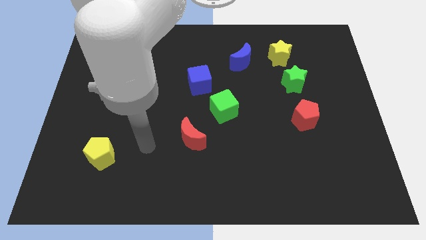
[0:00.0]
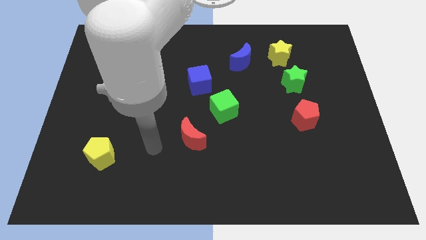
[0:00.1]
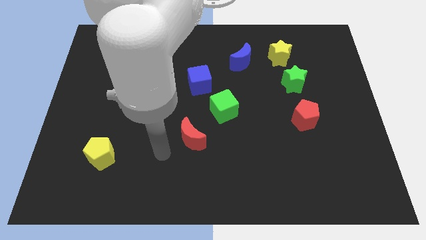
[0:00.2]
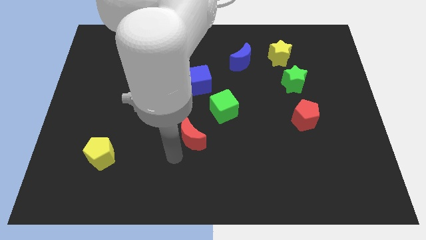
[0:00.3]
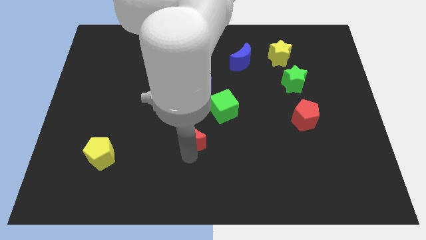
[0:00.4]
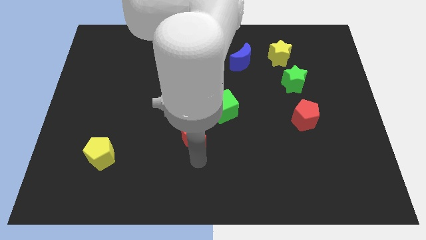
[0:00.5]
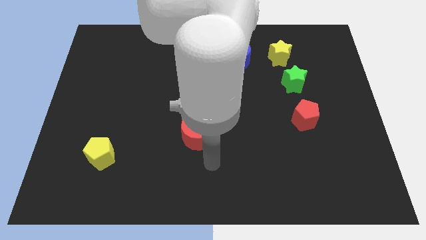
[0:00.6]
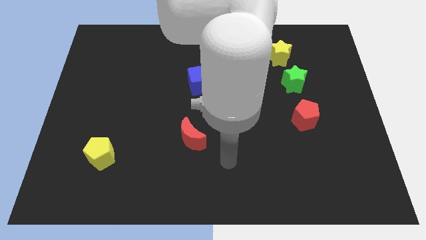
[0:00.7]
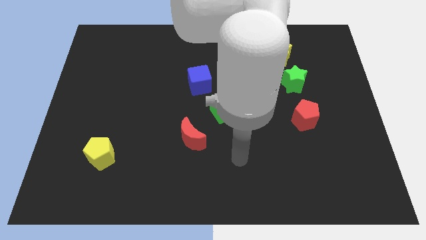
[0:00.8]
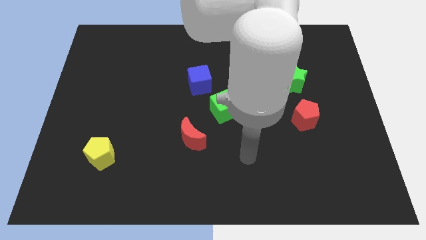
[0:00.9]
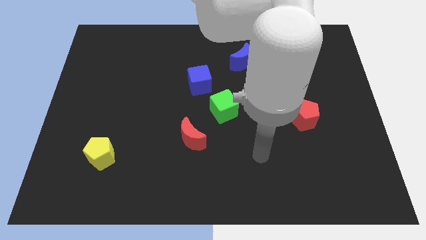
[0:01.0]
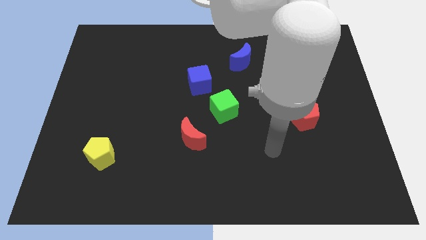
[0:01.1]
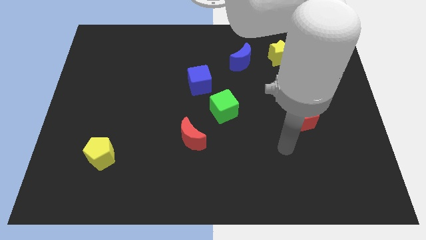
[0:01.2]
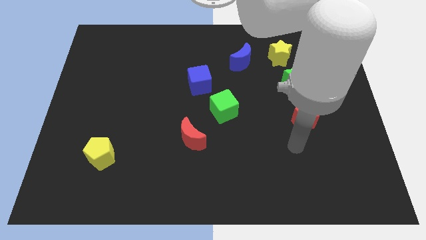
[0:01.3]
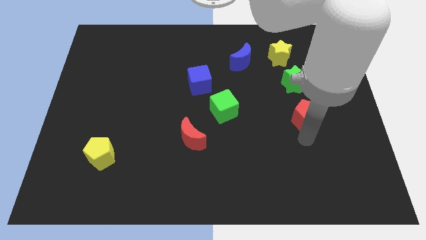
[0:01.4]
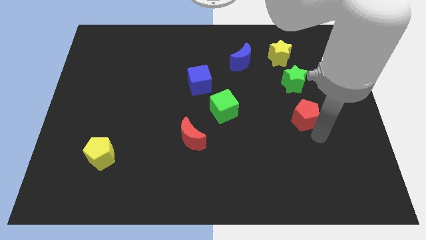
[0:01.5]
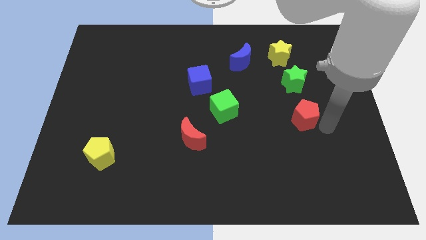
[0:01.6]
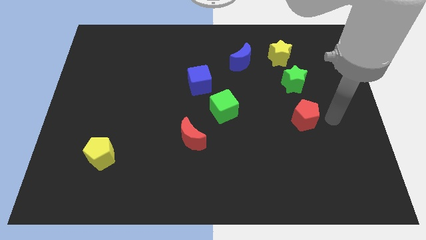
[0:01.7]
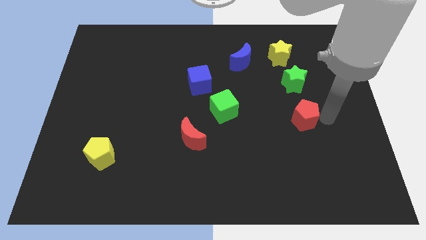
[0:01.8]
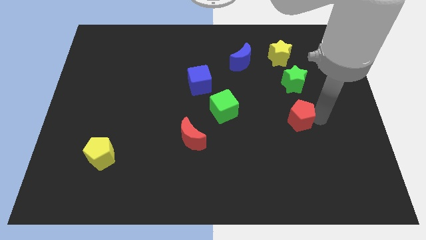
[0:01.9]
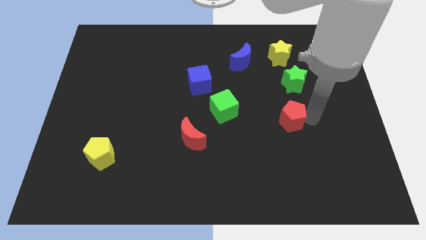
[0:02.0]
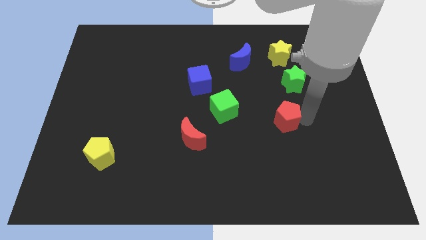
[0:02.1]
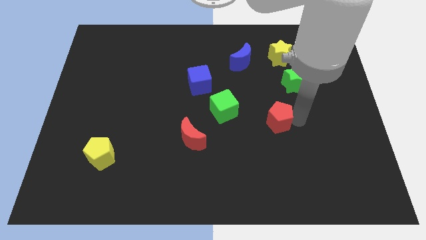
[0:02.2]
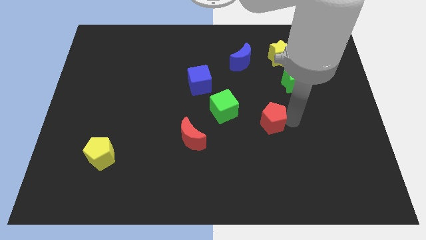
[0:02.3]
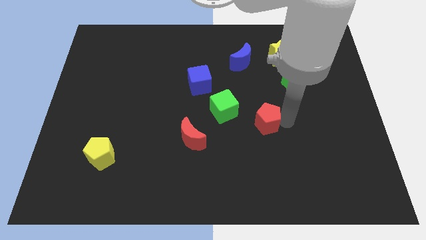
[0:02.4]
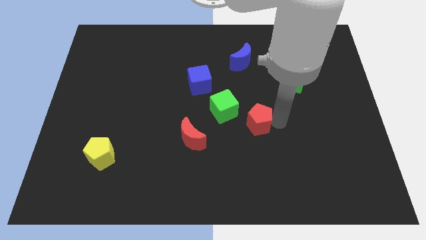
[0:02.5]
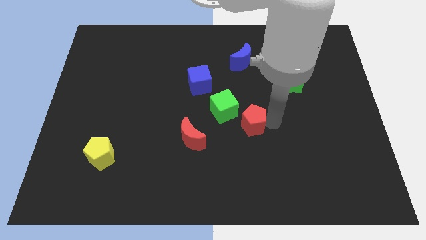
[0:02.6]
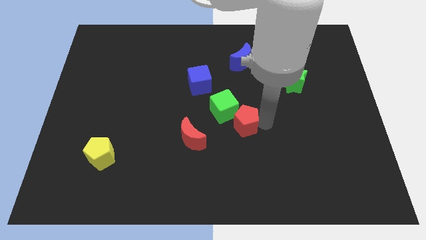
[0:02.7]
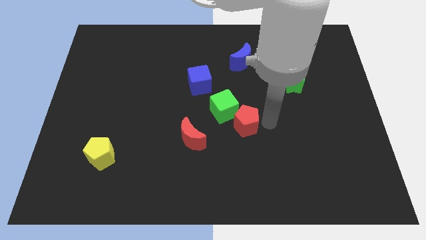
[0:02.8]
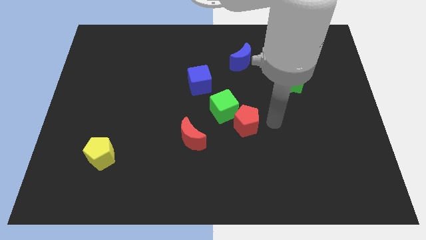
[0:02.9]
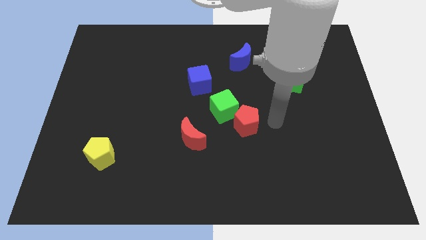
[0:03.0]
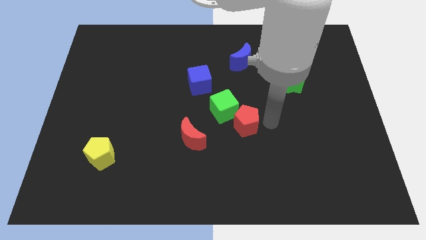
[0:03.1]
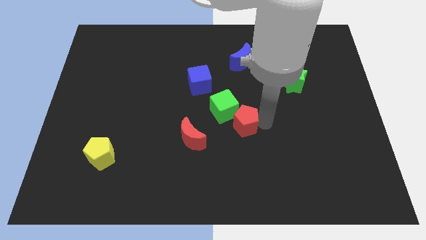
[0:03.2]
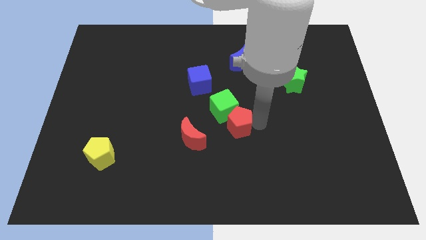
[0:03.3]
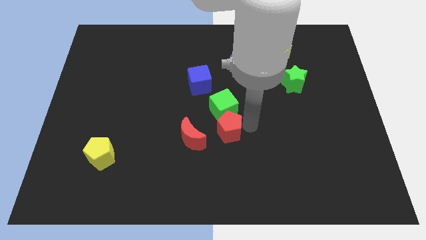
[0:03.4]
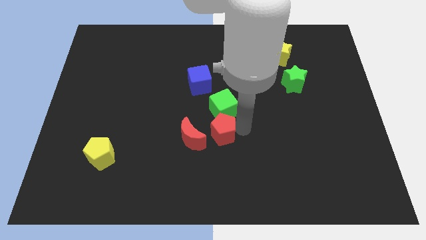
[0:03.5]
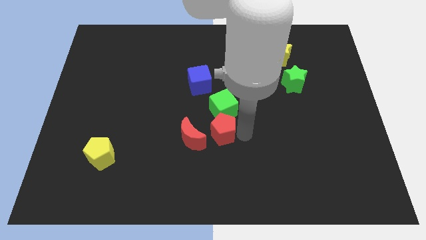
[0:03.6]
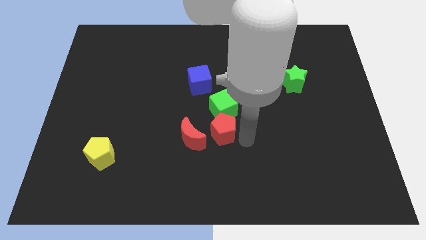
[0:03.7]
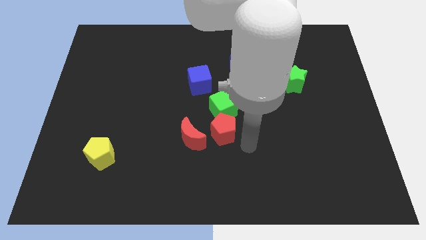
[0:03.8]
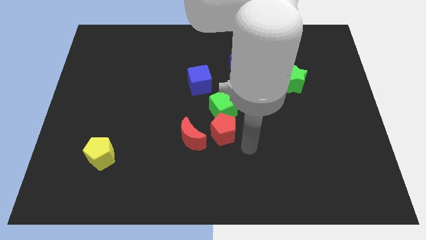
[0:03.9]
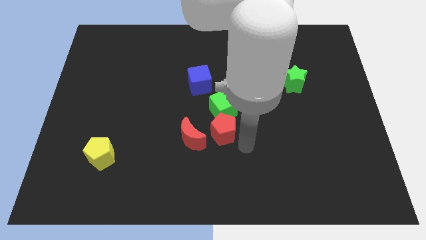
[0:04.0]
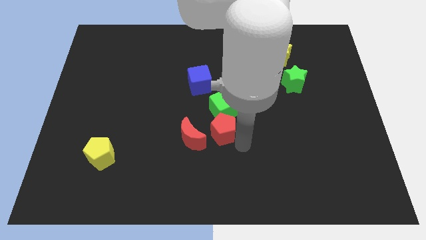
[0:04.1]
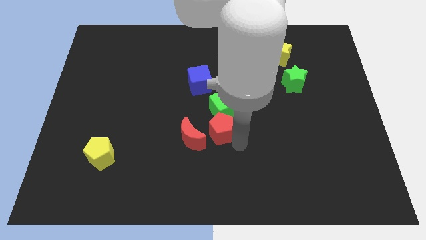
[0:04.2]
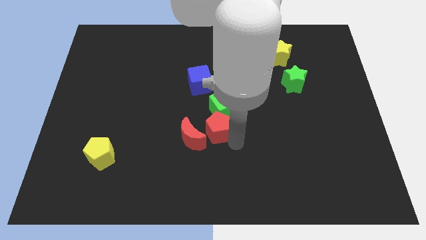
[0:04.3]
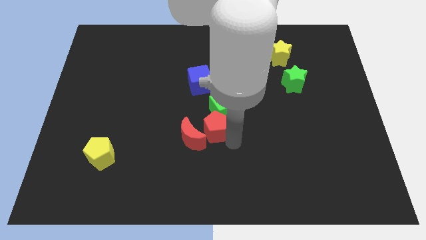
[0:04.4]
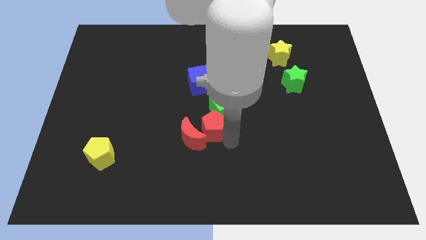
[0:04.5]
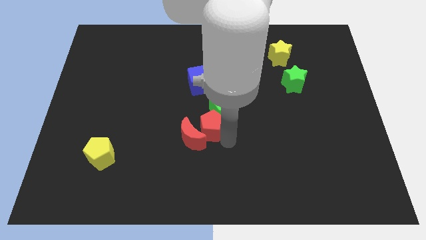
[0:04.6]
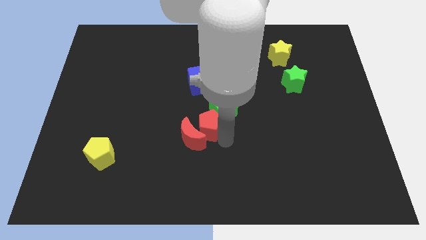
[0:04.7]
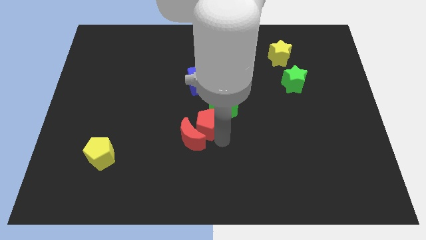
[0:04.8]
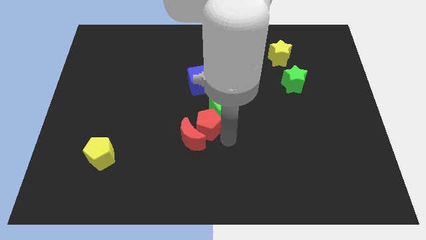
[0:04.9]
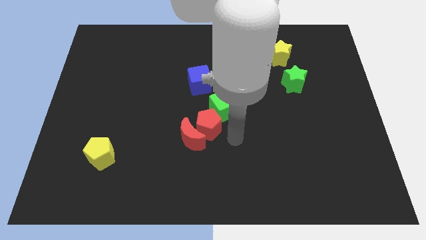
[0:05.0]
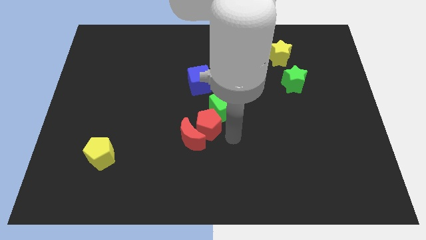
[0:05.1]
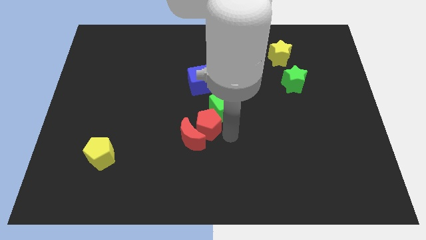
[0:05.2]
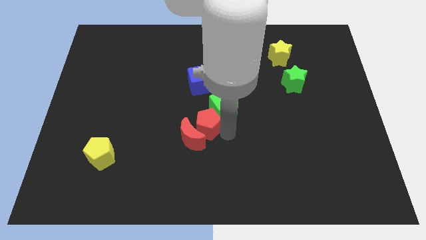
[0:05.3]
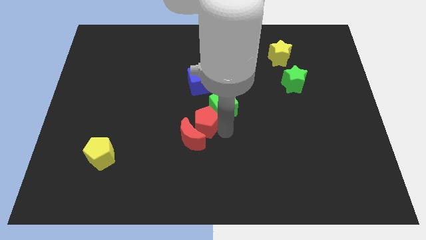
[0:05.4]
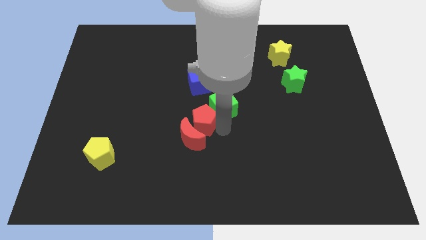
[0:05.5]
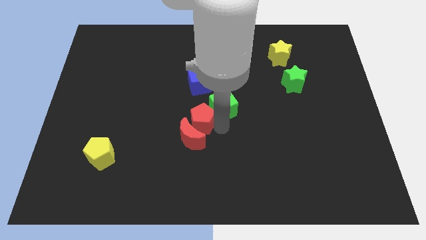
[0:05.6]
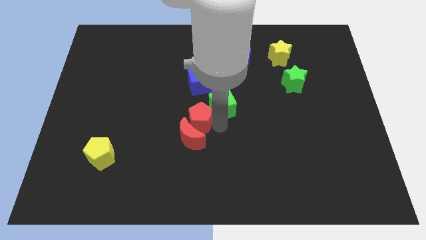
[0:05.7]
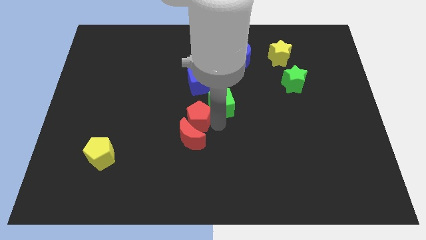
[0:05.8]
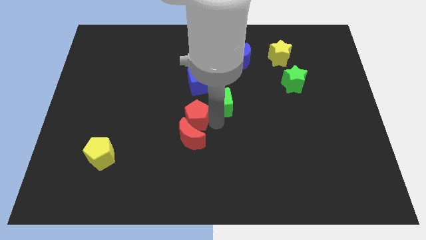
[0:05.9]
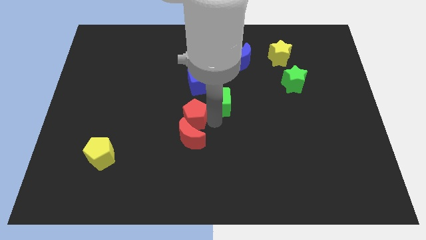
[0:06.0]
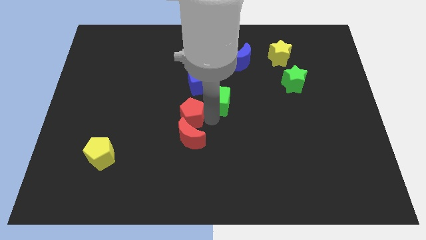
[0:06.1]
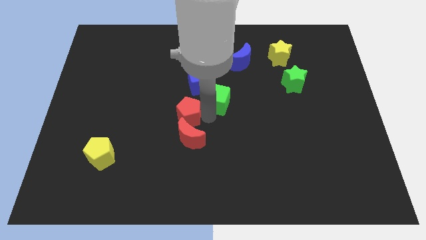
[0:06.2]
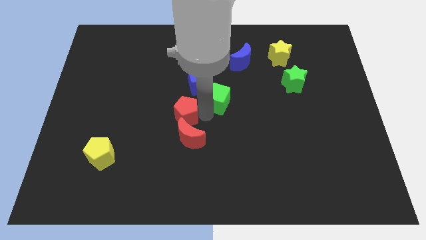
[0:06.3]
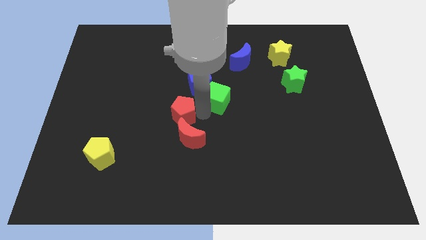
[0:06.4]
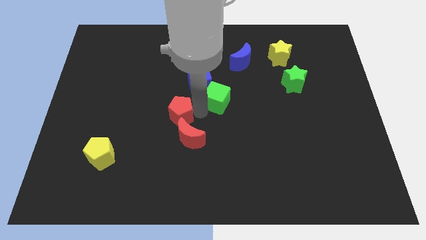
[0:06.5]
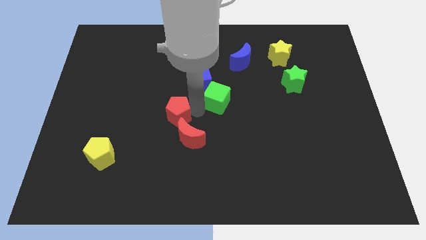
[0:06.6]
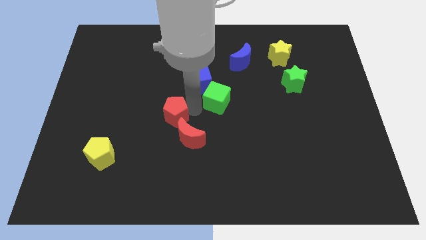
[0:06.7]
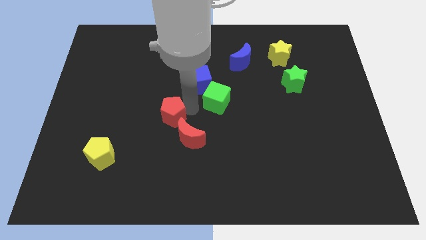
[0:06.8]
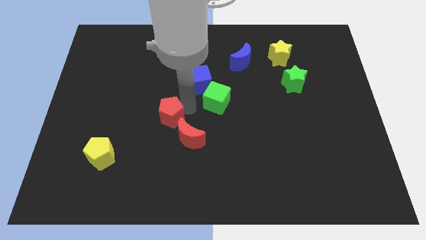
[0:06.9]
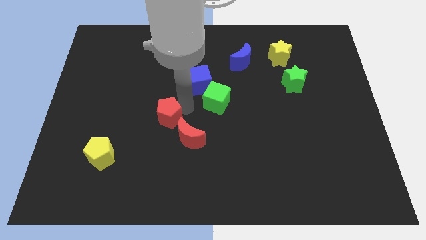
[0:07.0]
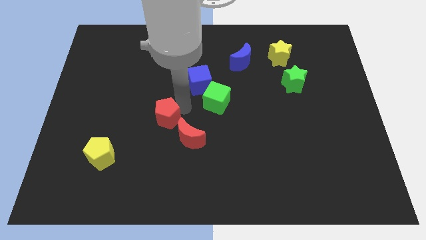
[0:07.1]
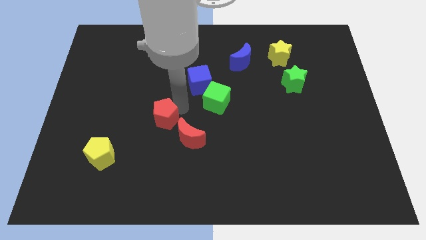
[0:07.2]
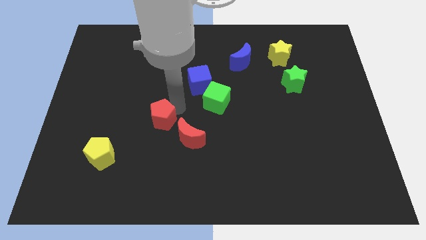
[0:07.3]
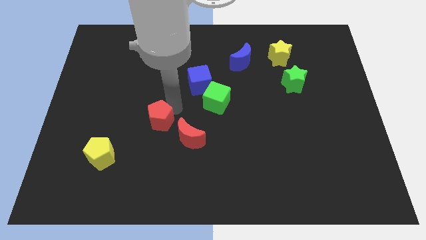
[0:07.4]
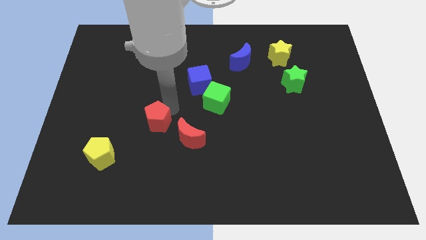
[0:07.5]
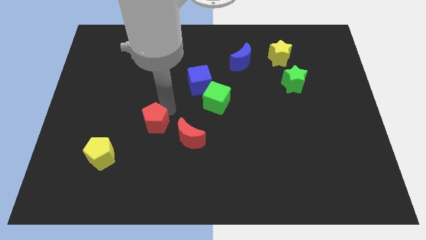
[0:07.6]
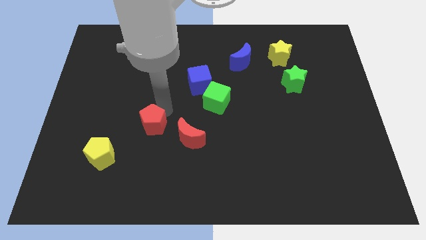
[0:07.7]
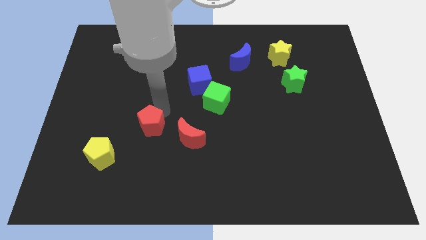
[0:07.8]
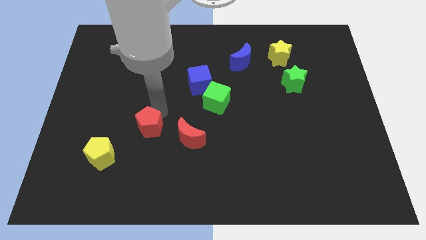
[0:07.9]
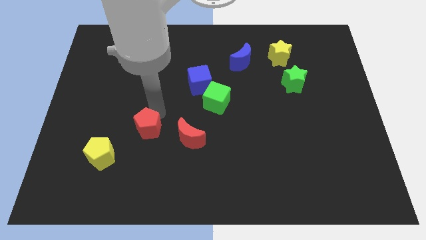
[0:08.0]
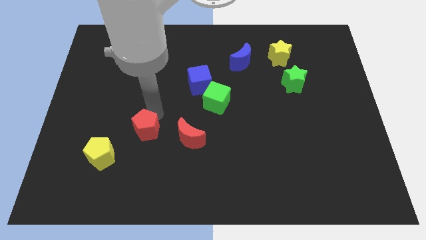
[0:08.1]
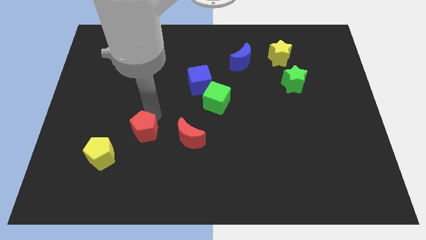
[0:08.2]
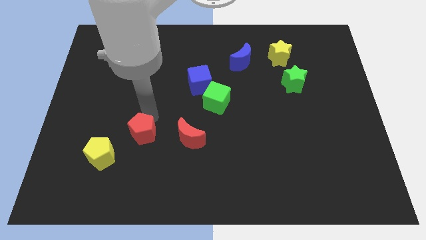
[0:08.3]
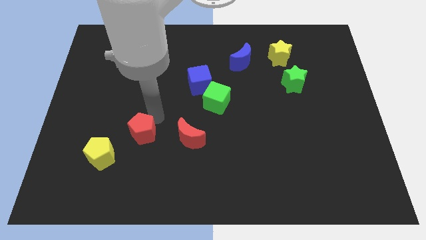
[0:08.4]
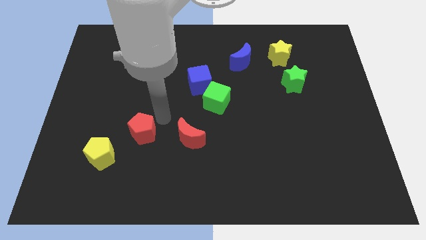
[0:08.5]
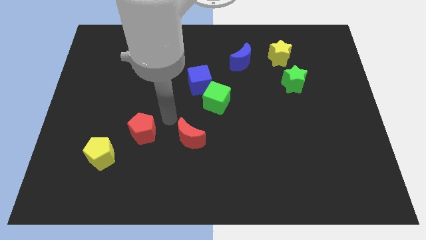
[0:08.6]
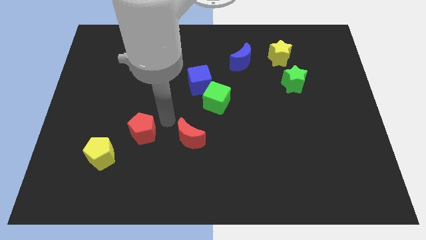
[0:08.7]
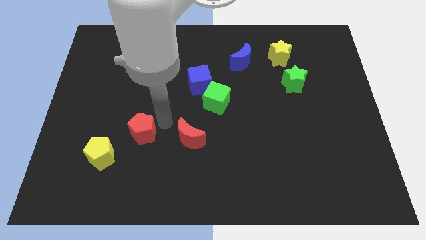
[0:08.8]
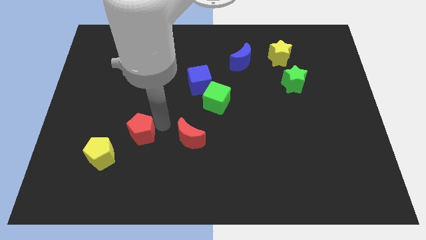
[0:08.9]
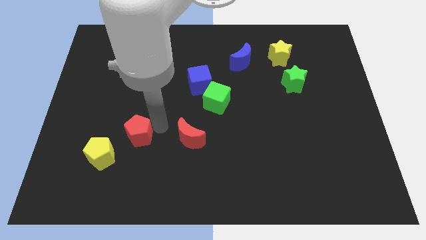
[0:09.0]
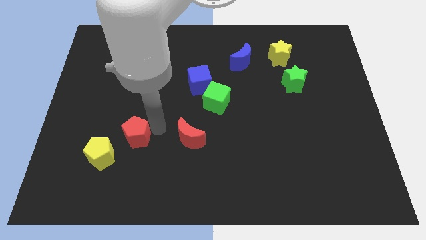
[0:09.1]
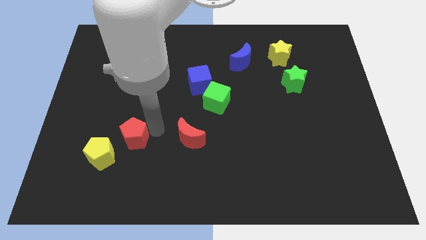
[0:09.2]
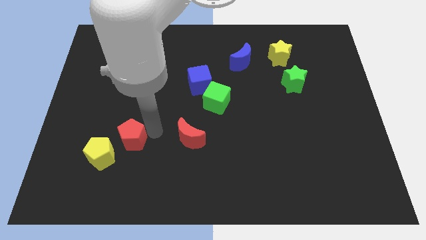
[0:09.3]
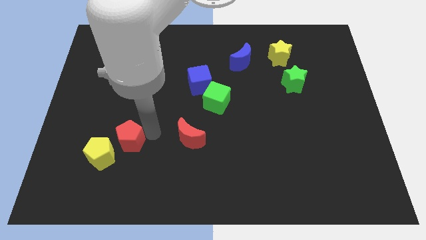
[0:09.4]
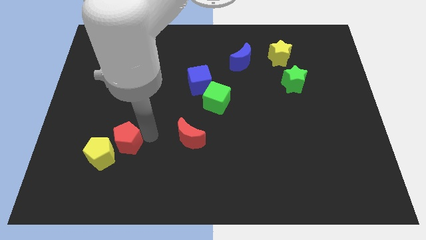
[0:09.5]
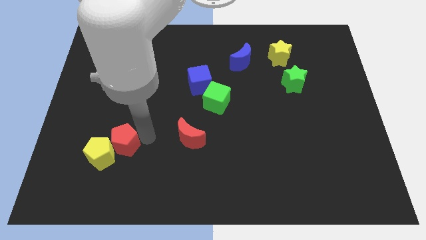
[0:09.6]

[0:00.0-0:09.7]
push the red pentagon towards the yellow pentagon
